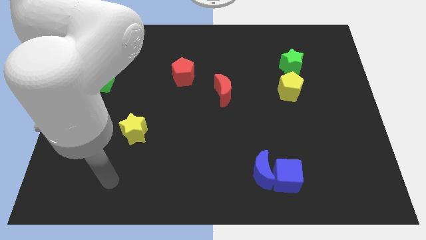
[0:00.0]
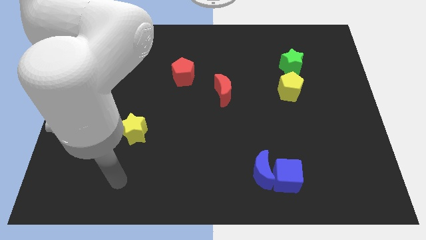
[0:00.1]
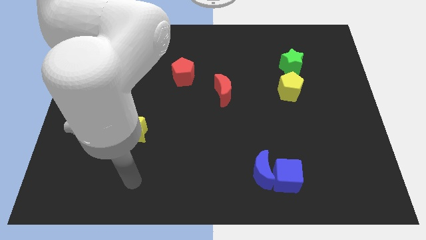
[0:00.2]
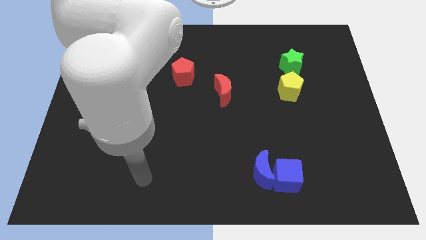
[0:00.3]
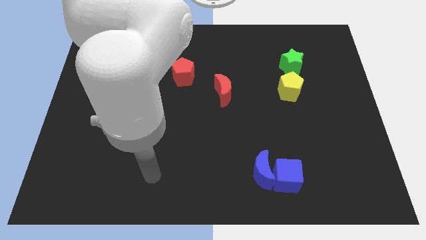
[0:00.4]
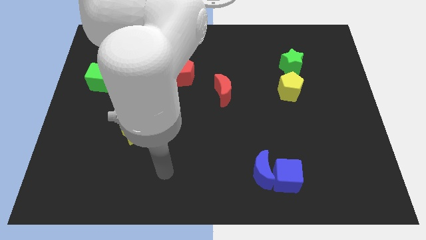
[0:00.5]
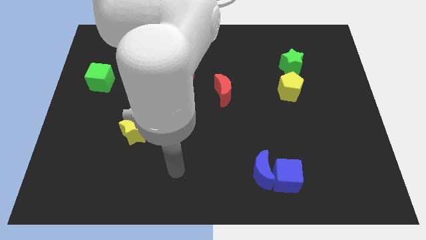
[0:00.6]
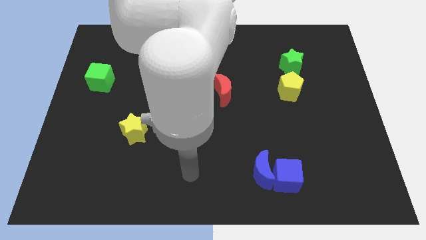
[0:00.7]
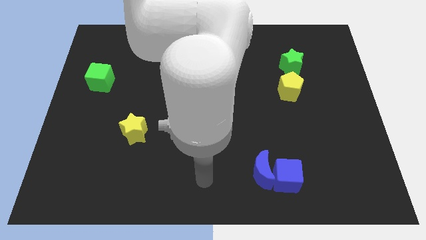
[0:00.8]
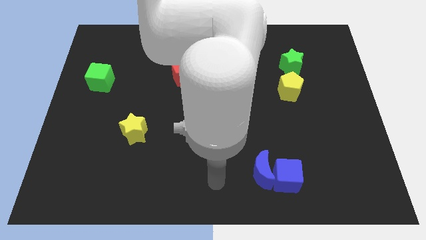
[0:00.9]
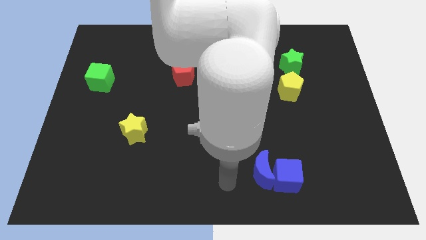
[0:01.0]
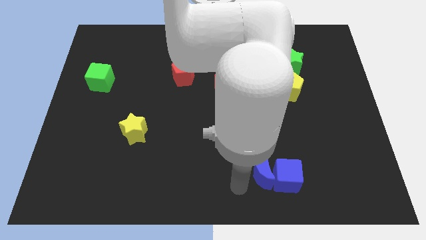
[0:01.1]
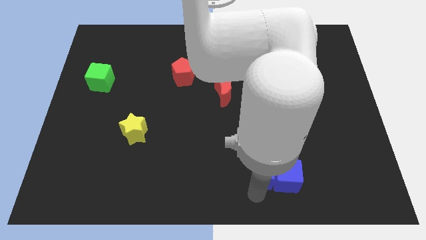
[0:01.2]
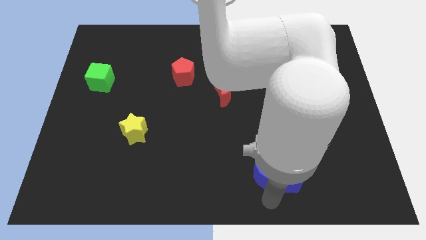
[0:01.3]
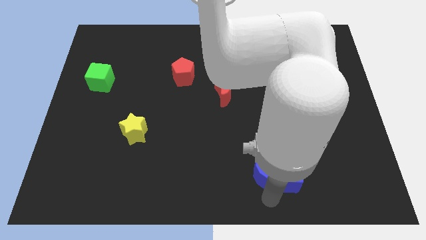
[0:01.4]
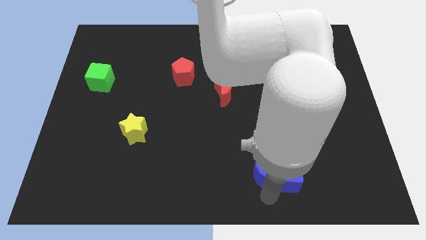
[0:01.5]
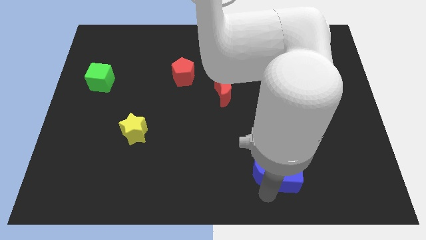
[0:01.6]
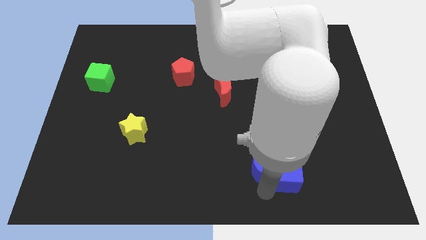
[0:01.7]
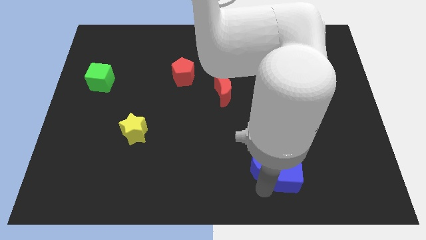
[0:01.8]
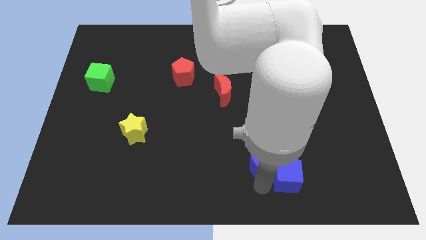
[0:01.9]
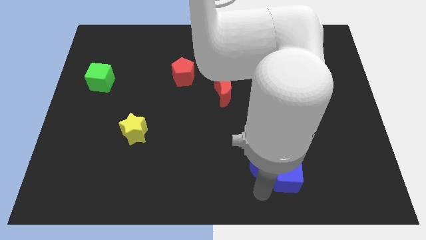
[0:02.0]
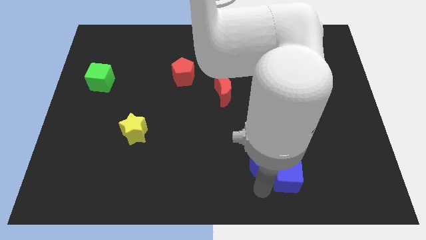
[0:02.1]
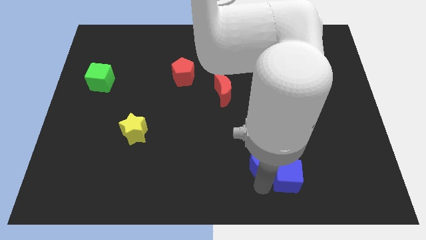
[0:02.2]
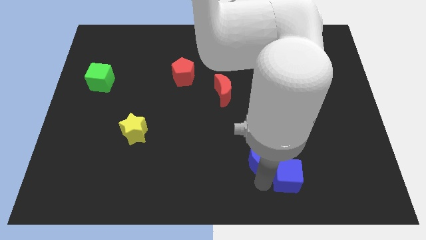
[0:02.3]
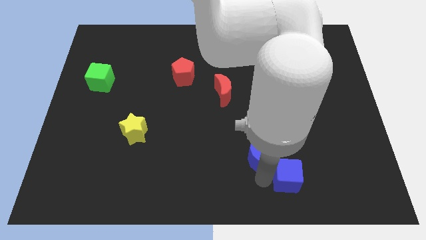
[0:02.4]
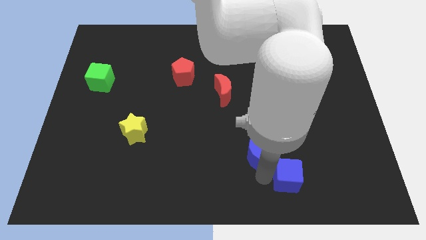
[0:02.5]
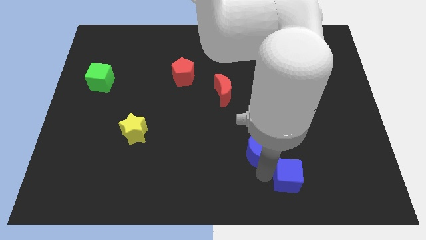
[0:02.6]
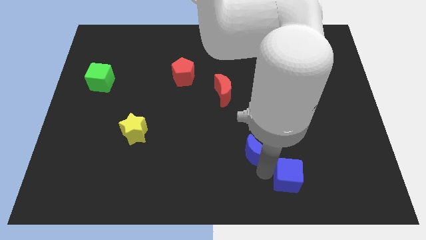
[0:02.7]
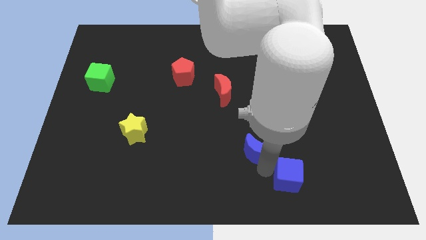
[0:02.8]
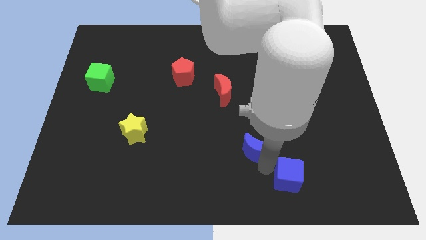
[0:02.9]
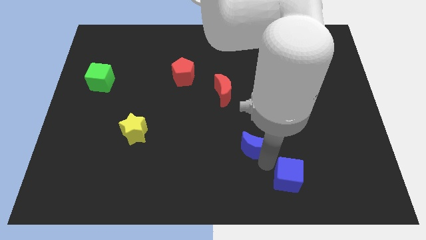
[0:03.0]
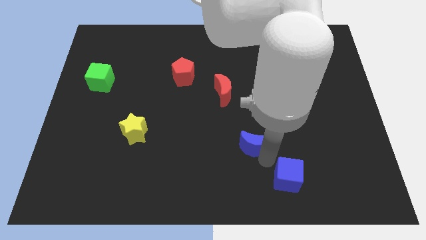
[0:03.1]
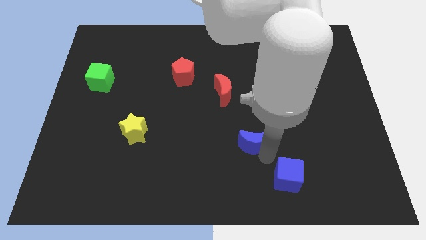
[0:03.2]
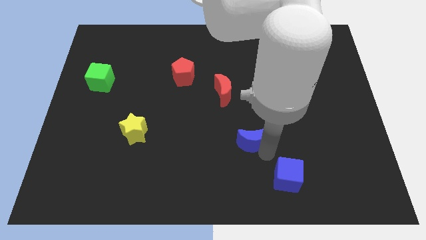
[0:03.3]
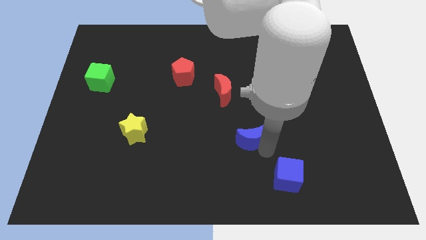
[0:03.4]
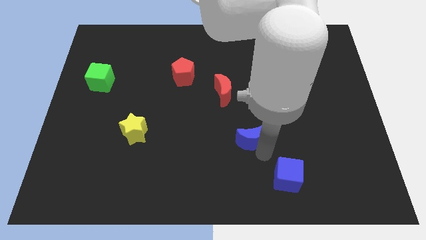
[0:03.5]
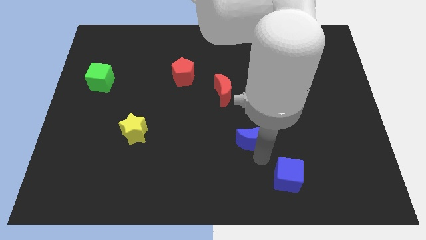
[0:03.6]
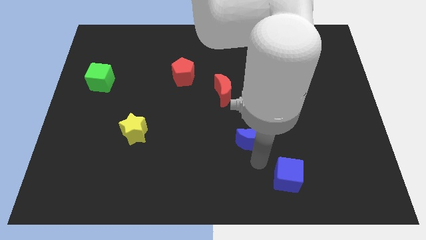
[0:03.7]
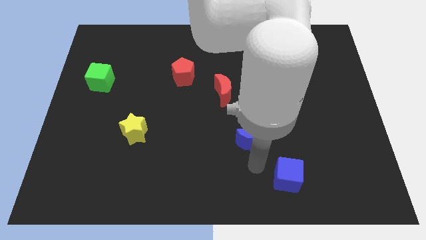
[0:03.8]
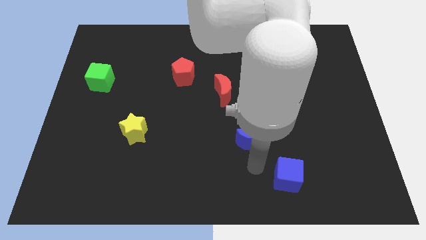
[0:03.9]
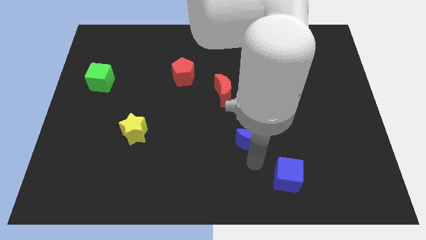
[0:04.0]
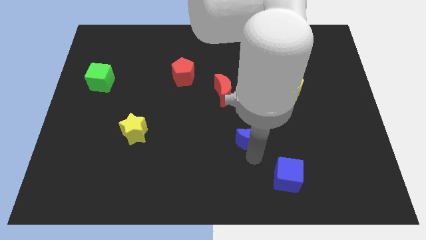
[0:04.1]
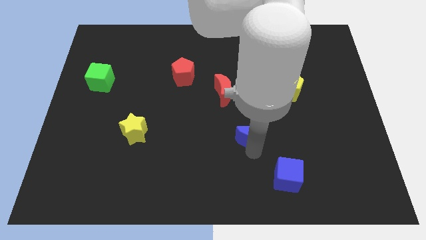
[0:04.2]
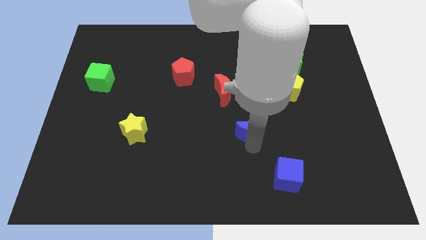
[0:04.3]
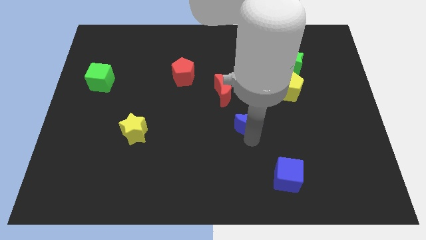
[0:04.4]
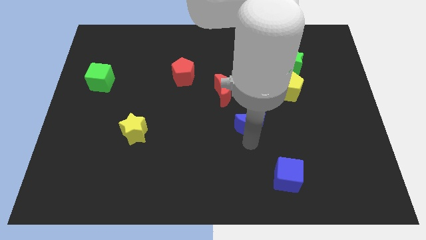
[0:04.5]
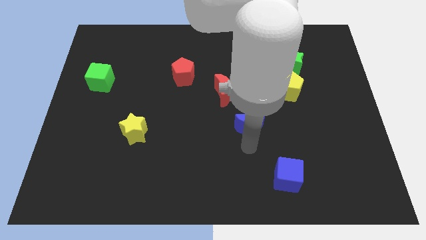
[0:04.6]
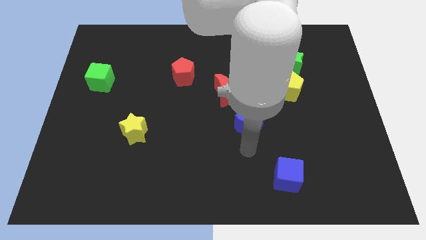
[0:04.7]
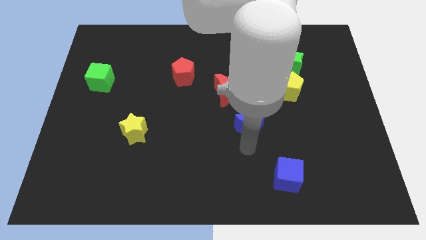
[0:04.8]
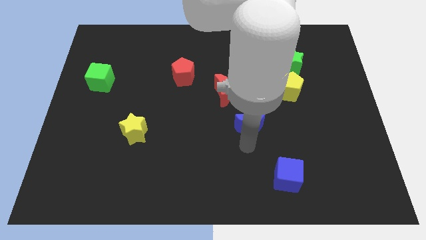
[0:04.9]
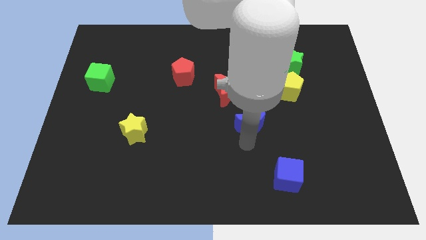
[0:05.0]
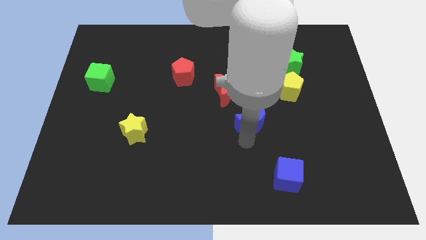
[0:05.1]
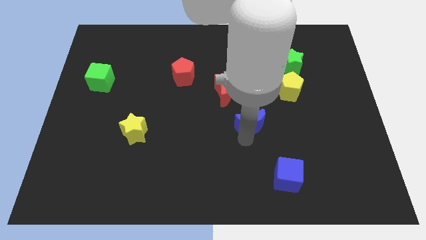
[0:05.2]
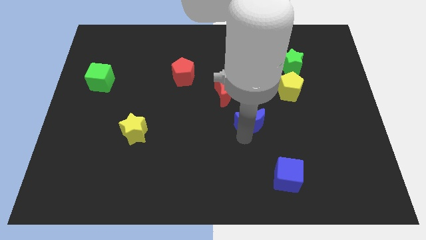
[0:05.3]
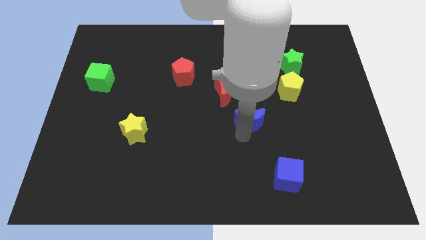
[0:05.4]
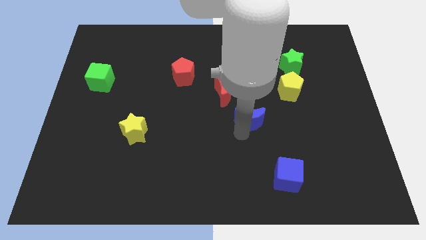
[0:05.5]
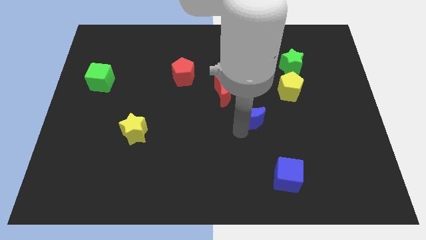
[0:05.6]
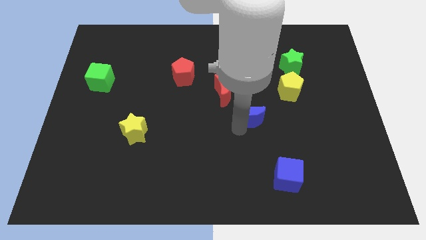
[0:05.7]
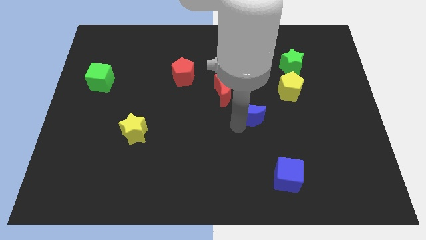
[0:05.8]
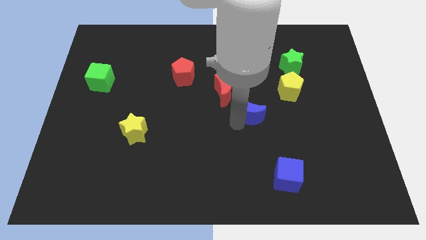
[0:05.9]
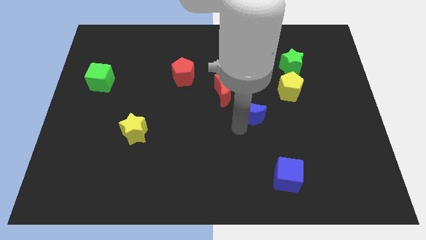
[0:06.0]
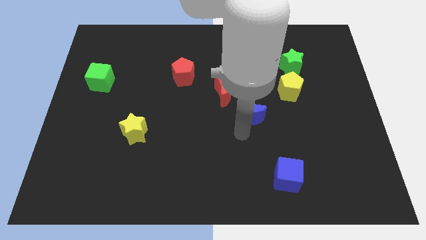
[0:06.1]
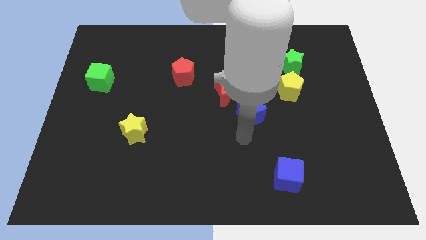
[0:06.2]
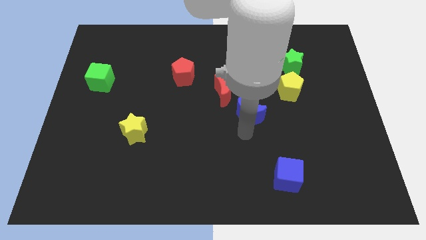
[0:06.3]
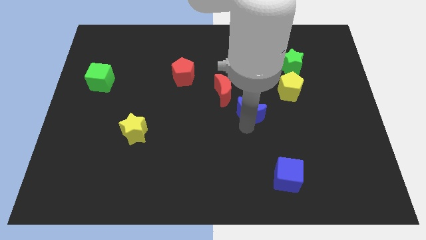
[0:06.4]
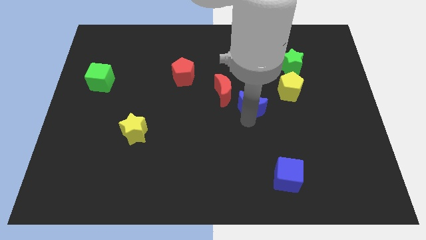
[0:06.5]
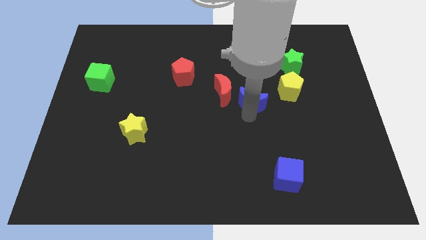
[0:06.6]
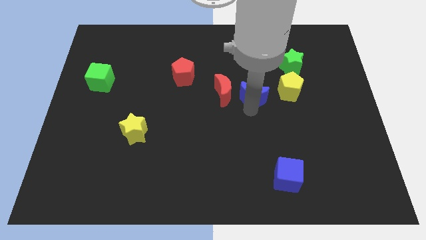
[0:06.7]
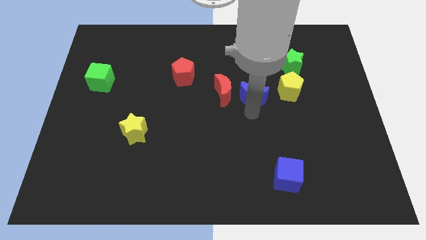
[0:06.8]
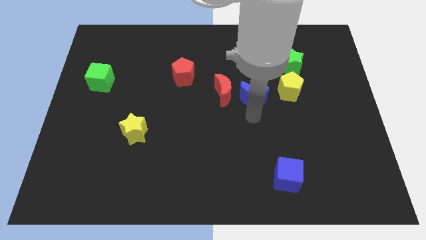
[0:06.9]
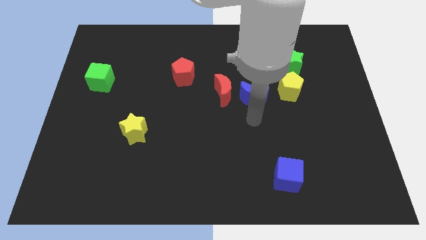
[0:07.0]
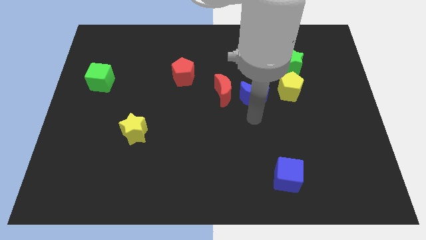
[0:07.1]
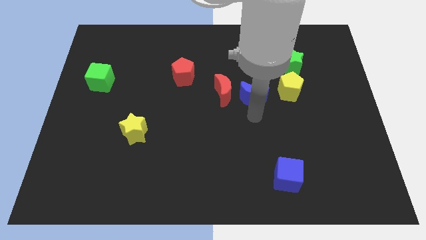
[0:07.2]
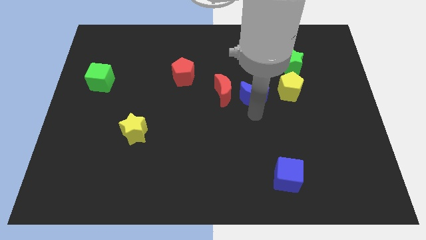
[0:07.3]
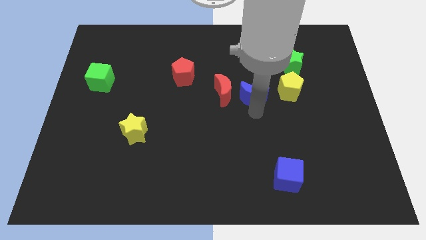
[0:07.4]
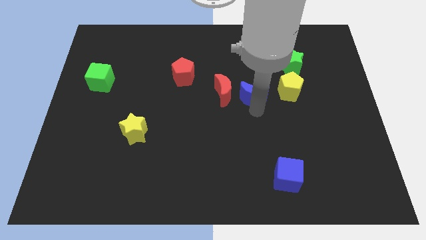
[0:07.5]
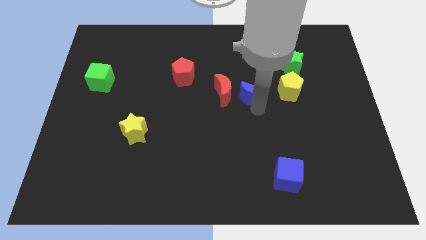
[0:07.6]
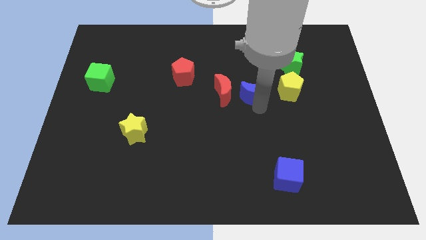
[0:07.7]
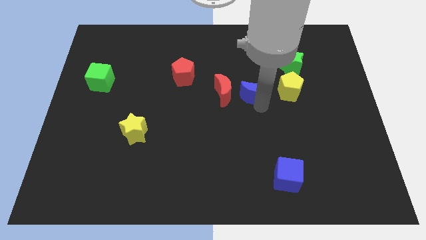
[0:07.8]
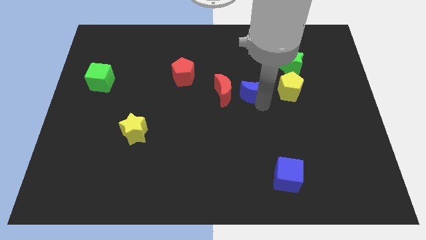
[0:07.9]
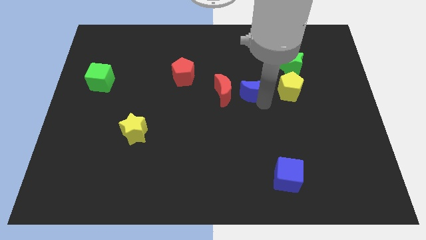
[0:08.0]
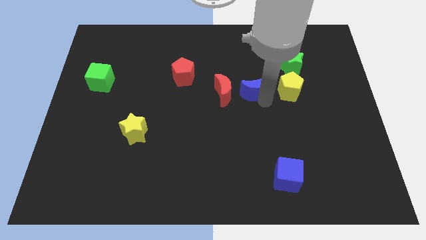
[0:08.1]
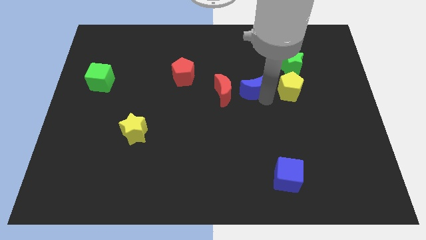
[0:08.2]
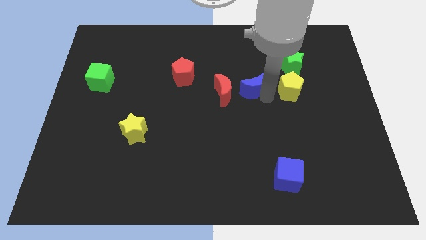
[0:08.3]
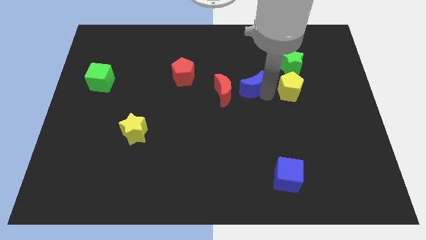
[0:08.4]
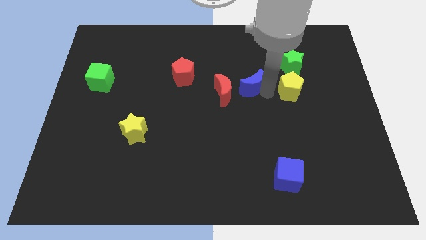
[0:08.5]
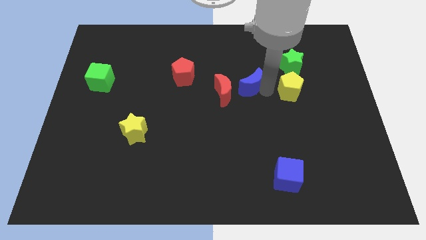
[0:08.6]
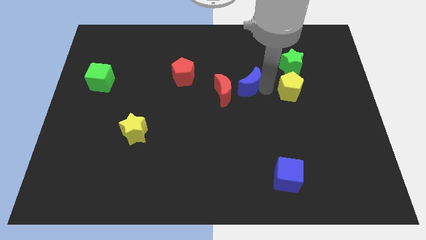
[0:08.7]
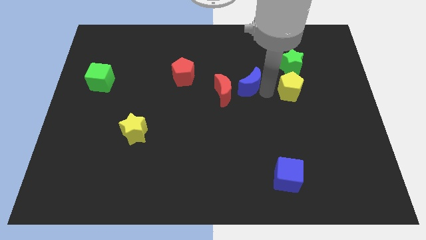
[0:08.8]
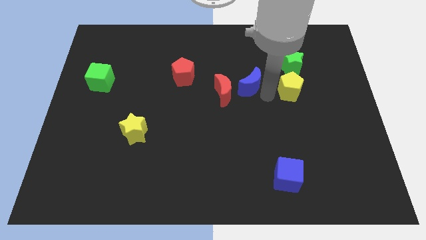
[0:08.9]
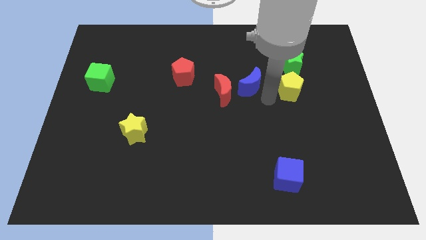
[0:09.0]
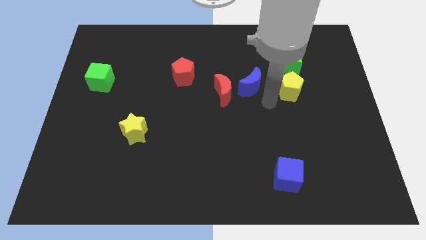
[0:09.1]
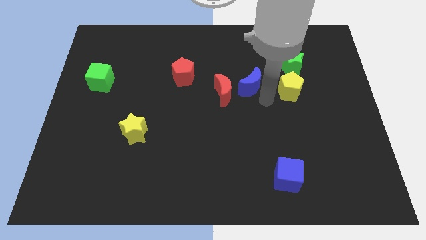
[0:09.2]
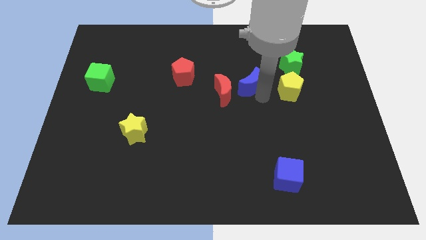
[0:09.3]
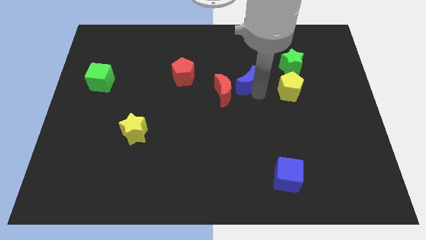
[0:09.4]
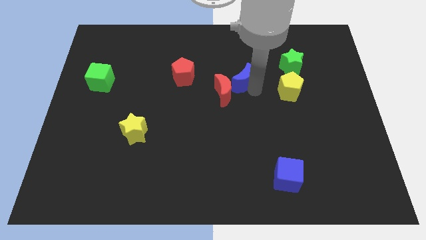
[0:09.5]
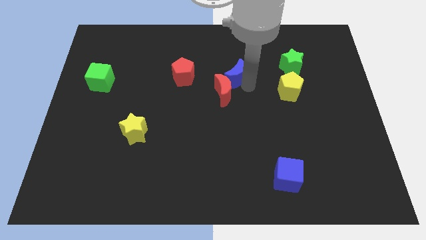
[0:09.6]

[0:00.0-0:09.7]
slide the blue moon to the top side of the red moon
